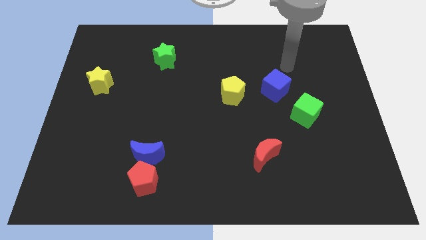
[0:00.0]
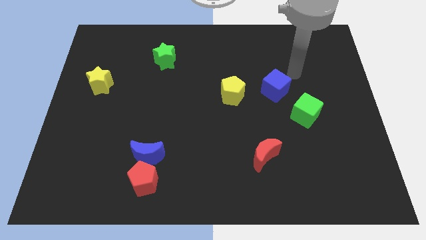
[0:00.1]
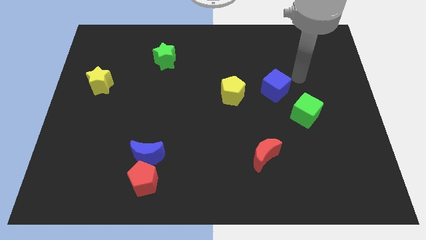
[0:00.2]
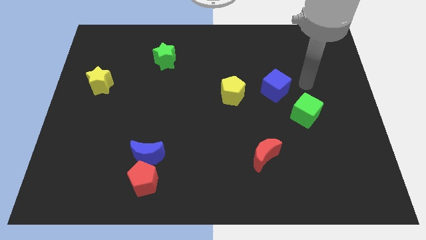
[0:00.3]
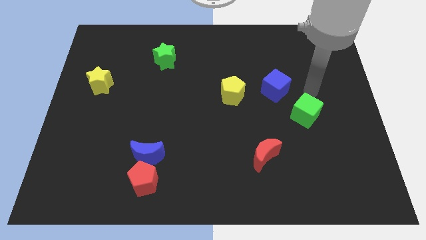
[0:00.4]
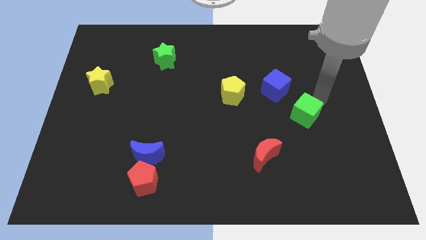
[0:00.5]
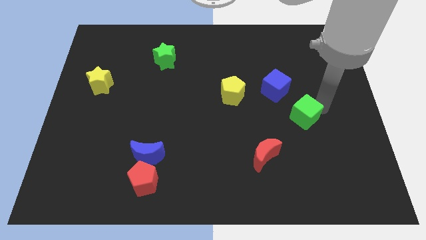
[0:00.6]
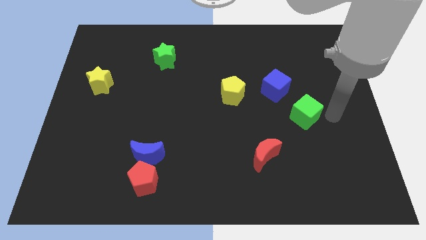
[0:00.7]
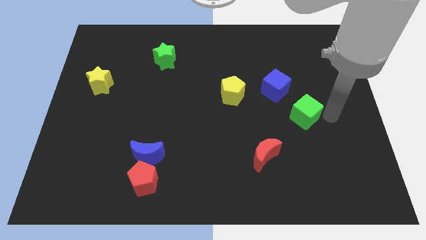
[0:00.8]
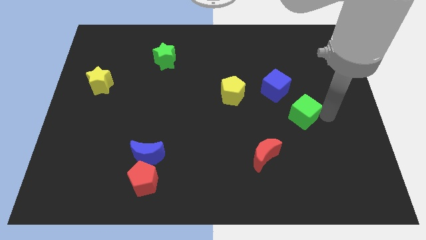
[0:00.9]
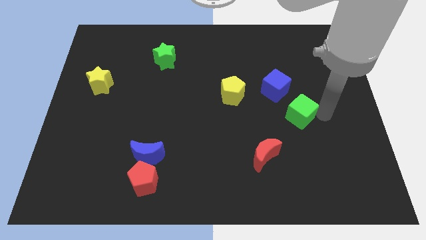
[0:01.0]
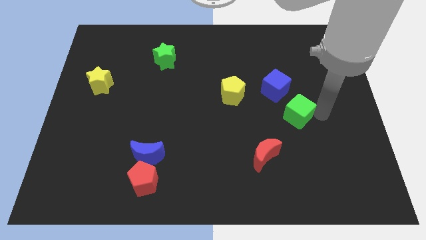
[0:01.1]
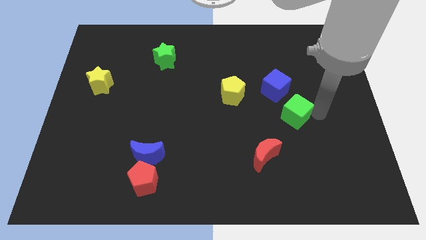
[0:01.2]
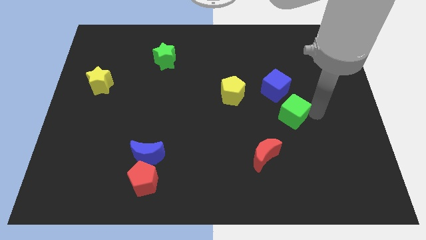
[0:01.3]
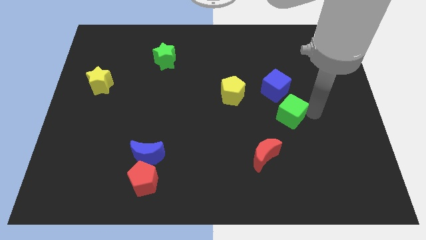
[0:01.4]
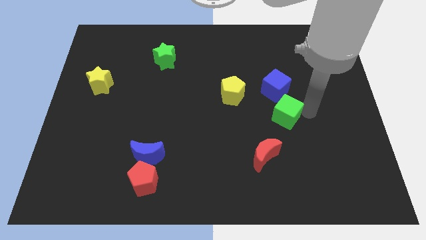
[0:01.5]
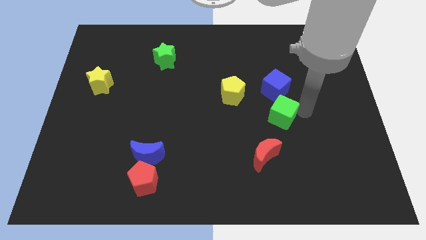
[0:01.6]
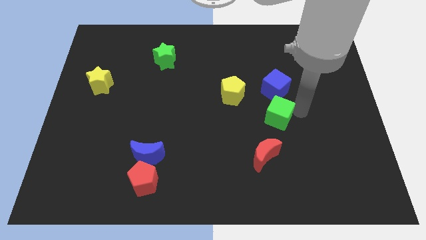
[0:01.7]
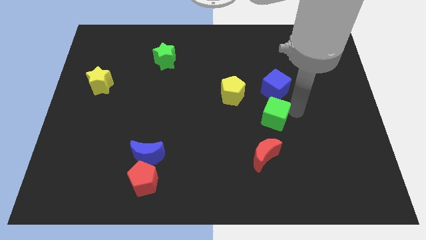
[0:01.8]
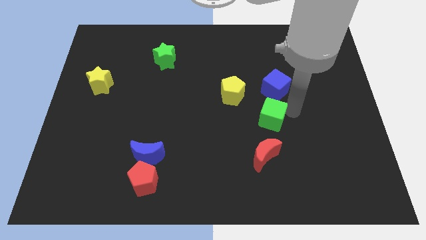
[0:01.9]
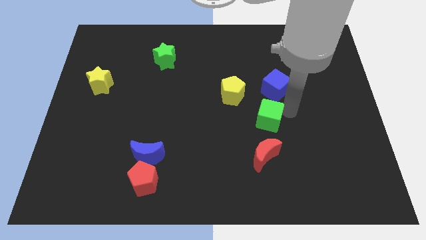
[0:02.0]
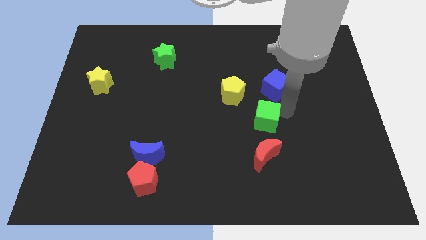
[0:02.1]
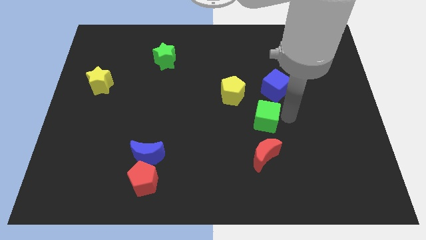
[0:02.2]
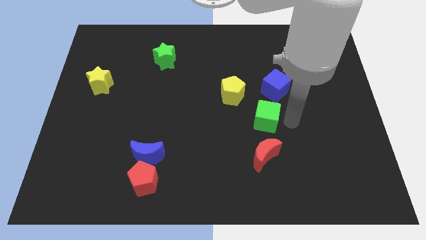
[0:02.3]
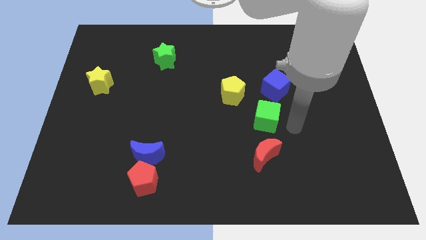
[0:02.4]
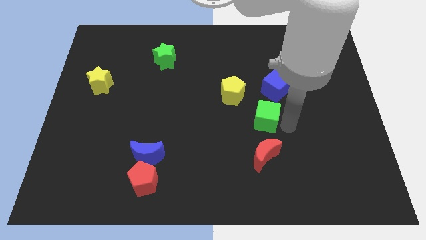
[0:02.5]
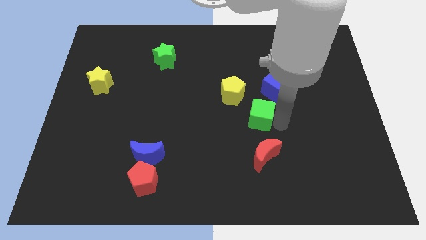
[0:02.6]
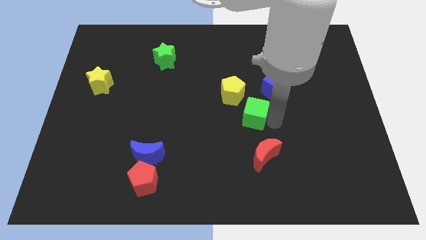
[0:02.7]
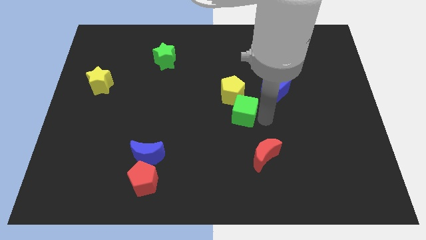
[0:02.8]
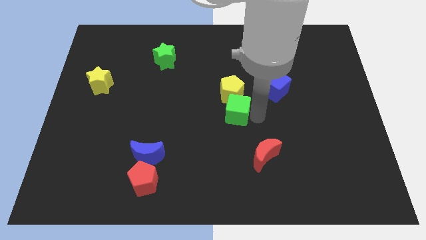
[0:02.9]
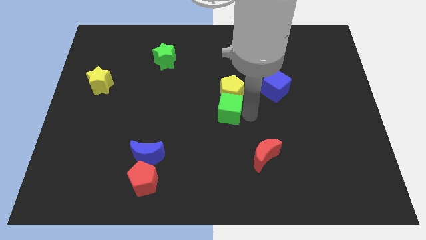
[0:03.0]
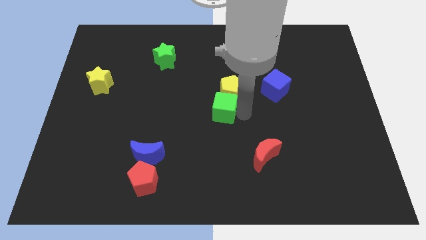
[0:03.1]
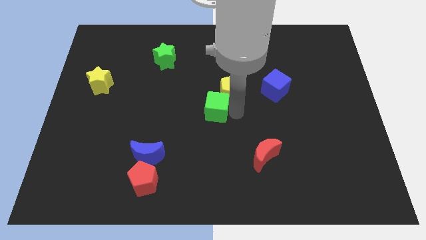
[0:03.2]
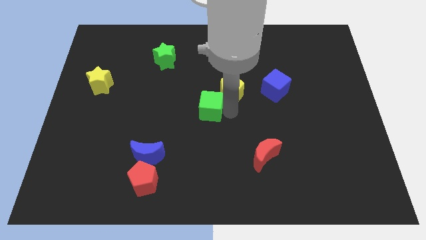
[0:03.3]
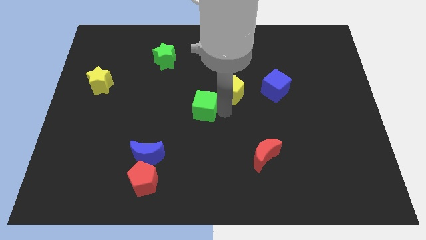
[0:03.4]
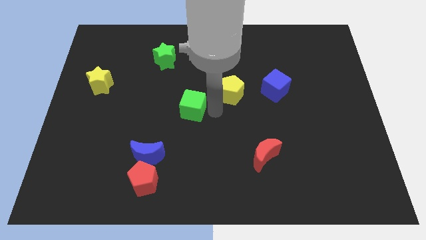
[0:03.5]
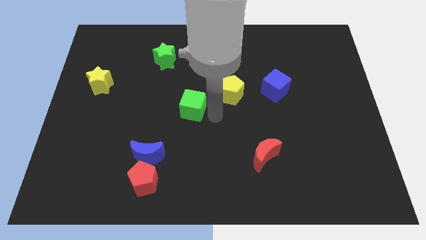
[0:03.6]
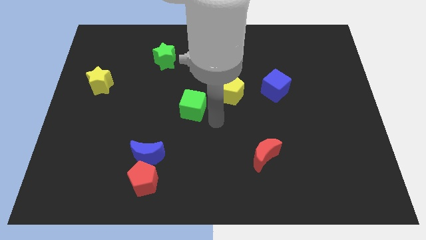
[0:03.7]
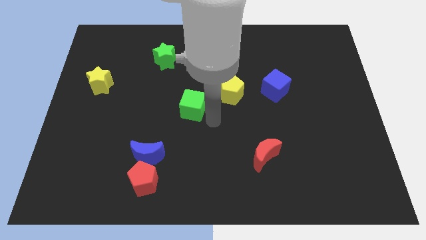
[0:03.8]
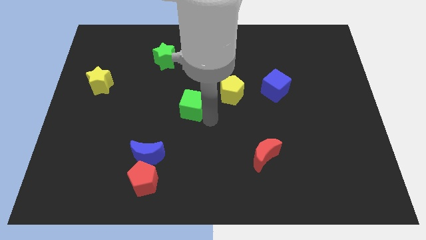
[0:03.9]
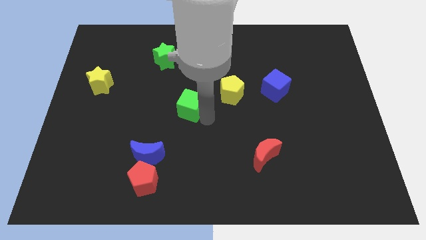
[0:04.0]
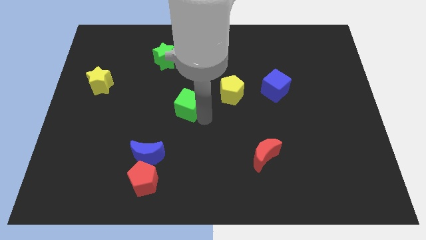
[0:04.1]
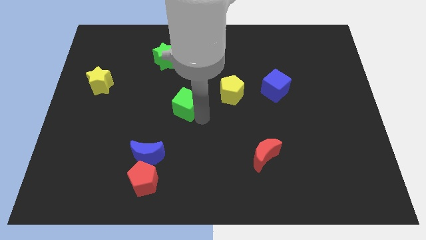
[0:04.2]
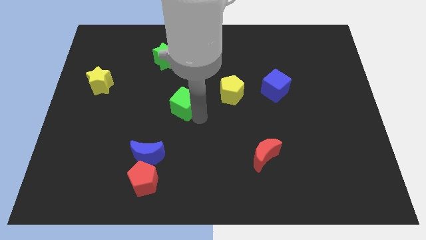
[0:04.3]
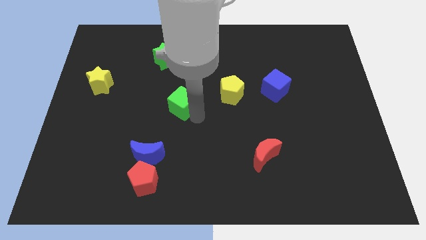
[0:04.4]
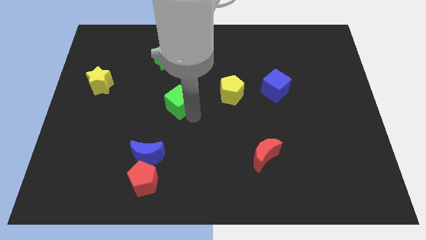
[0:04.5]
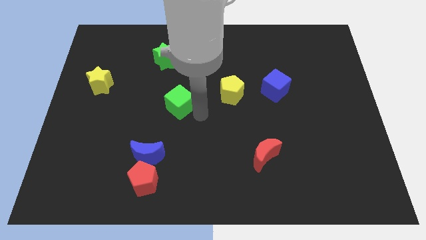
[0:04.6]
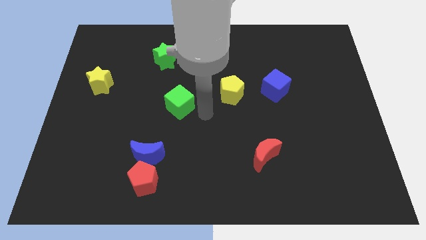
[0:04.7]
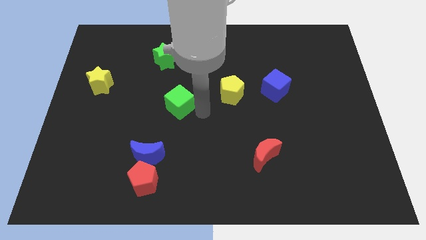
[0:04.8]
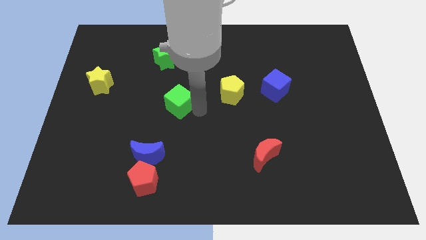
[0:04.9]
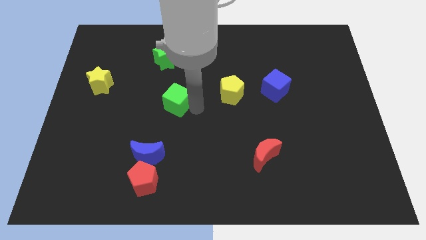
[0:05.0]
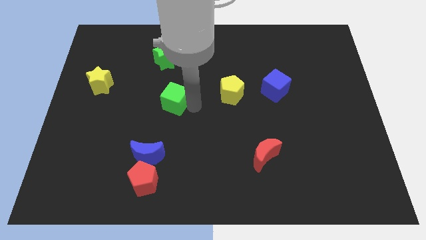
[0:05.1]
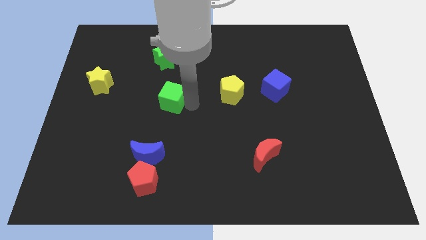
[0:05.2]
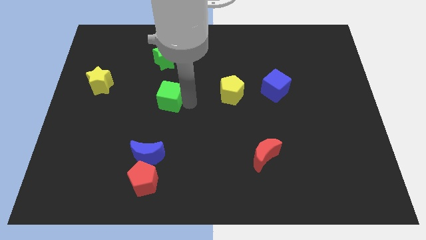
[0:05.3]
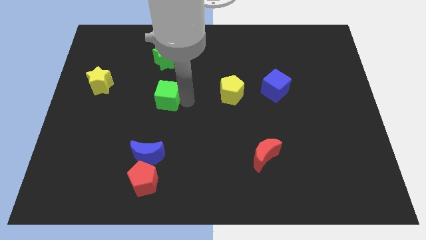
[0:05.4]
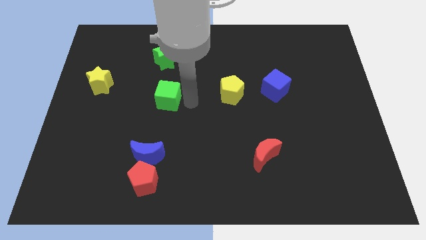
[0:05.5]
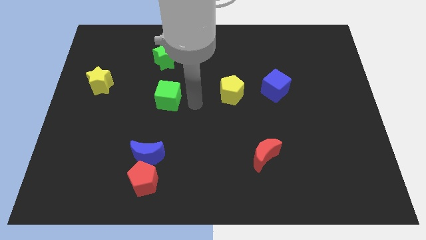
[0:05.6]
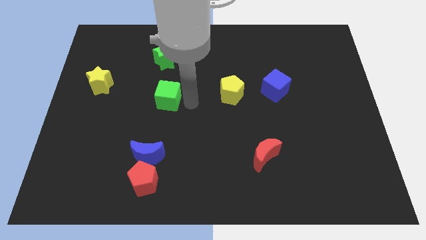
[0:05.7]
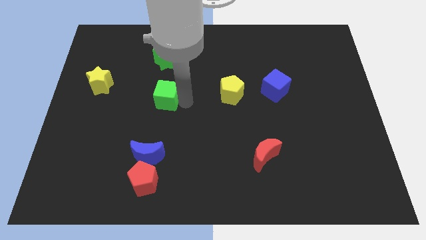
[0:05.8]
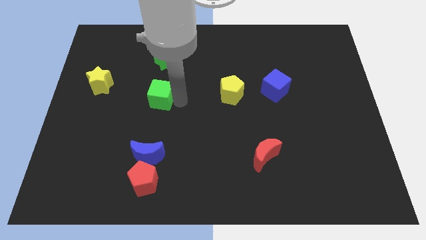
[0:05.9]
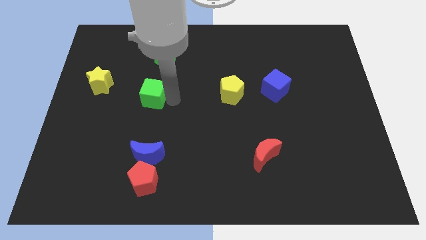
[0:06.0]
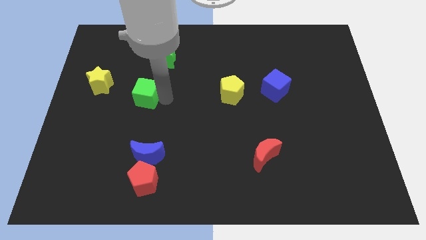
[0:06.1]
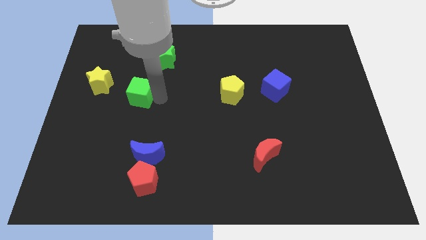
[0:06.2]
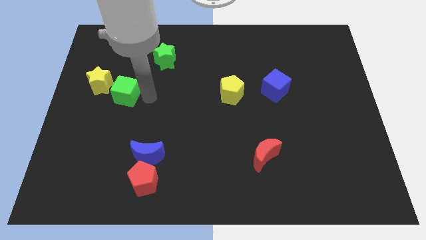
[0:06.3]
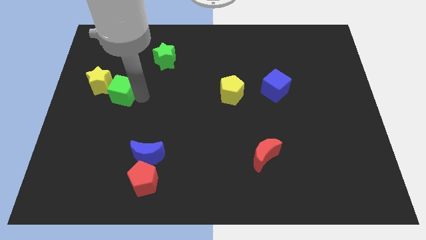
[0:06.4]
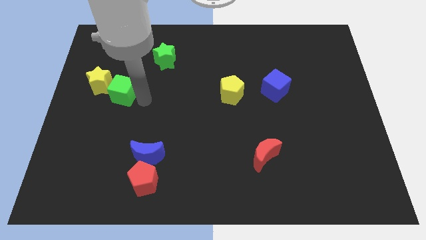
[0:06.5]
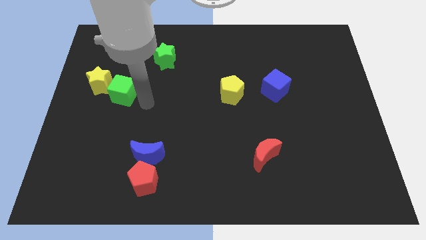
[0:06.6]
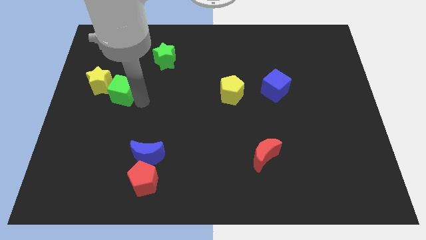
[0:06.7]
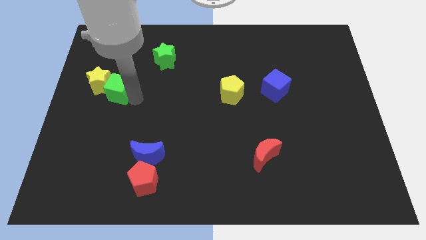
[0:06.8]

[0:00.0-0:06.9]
move the green cube towards the yellow star
